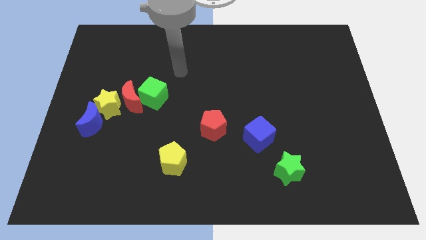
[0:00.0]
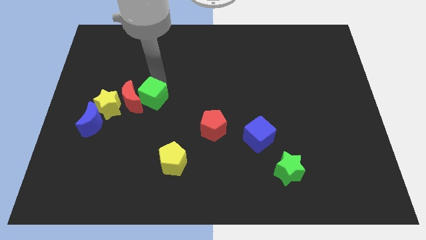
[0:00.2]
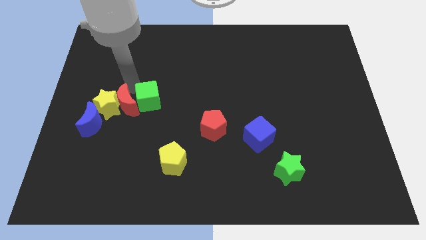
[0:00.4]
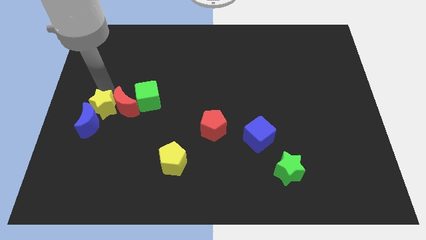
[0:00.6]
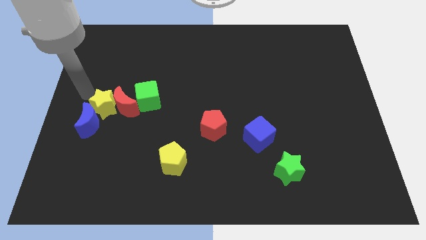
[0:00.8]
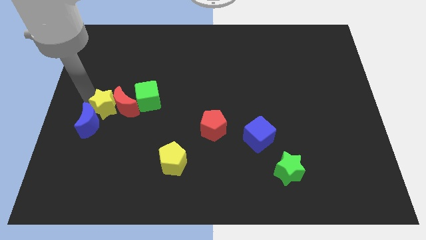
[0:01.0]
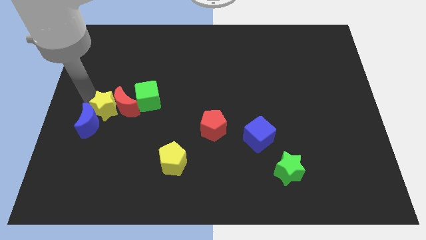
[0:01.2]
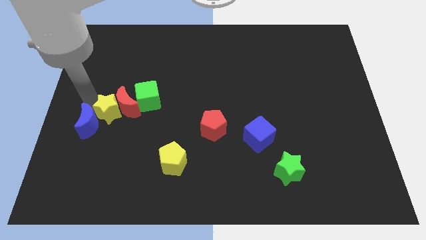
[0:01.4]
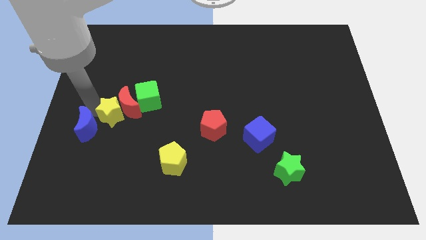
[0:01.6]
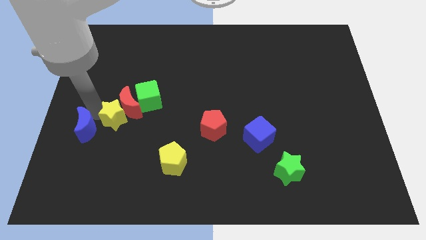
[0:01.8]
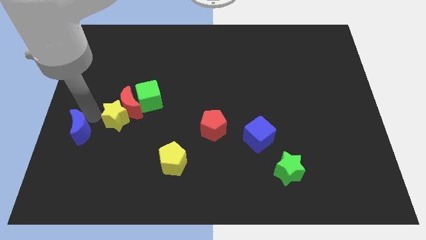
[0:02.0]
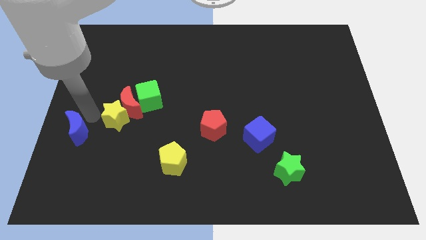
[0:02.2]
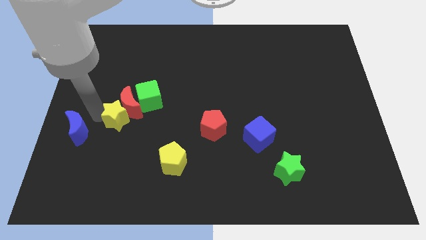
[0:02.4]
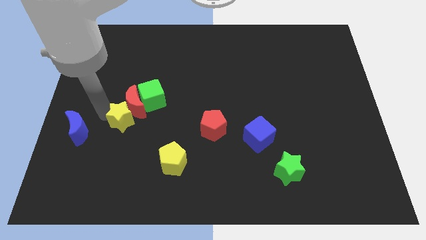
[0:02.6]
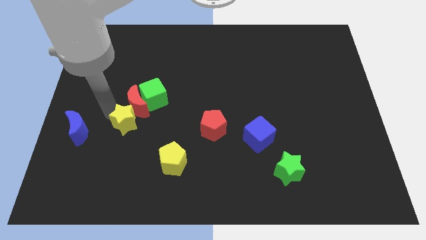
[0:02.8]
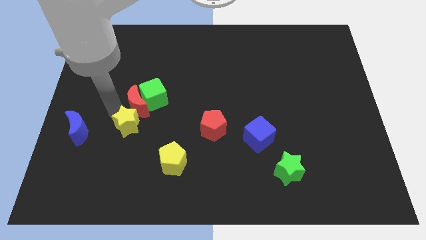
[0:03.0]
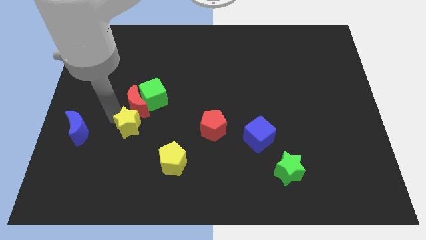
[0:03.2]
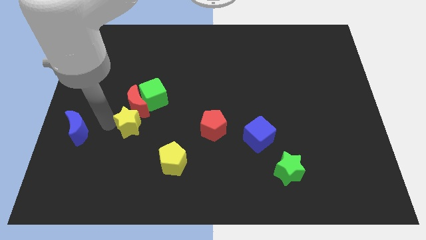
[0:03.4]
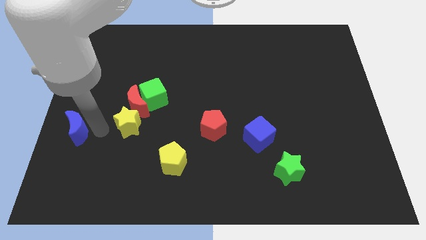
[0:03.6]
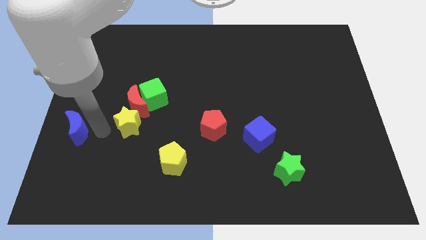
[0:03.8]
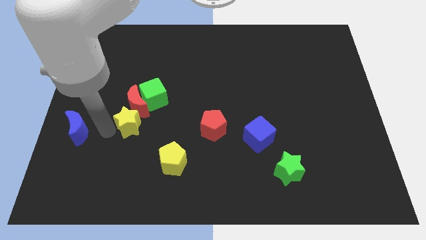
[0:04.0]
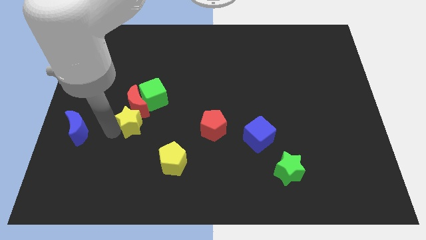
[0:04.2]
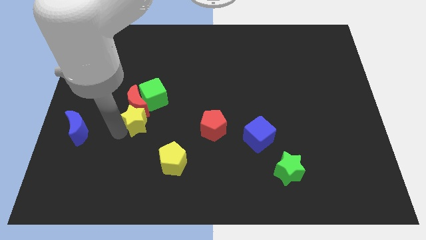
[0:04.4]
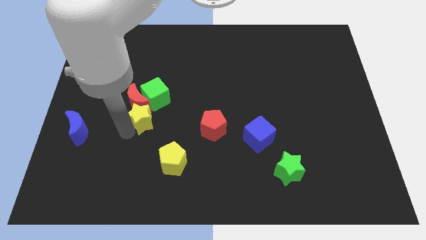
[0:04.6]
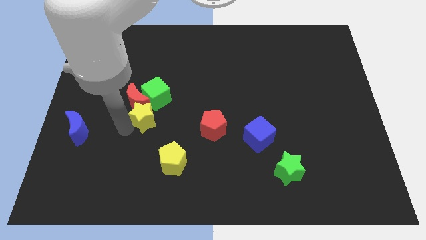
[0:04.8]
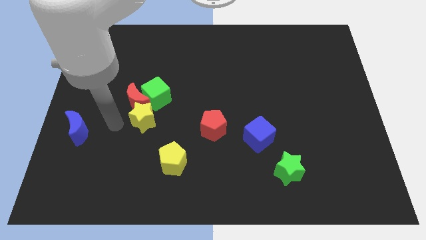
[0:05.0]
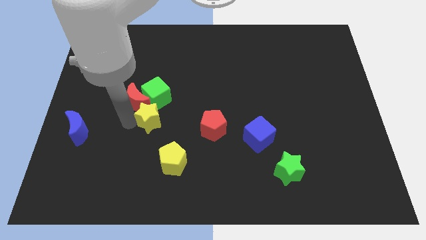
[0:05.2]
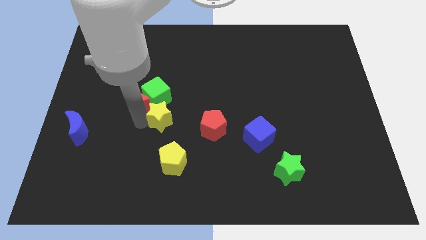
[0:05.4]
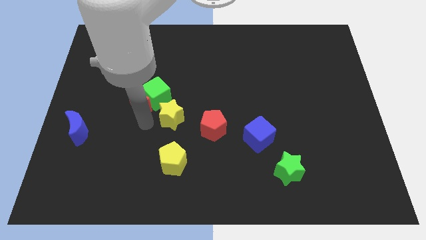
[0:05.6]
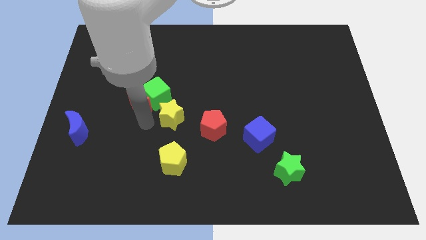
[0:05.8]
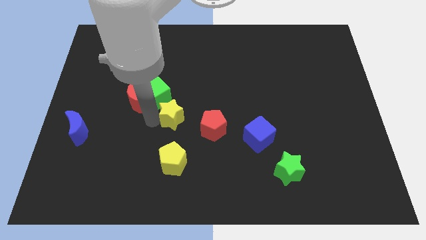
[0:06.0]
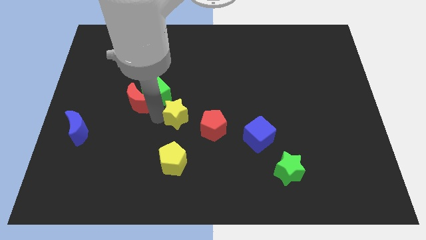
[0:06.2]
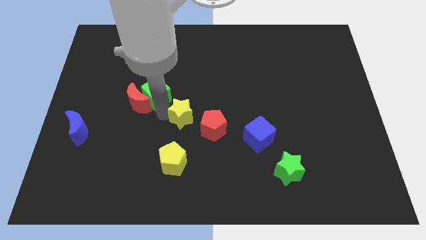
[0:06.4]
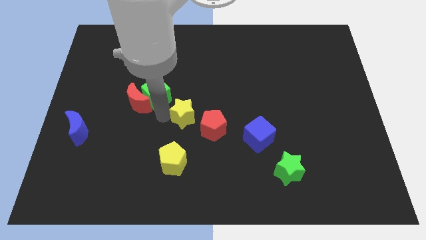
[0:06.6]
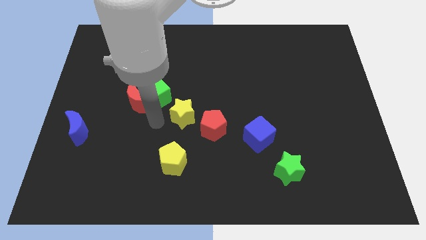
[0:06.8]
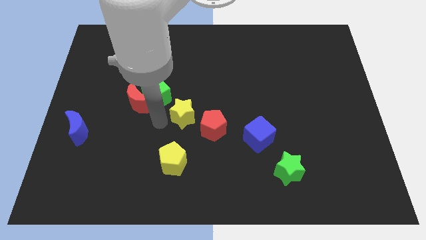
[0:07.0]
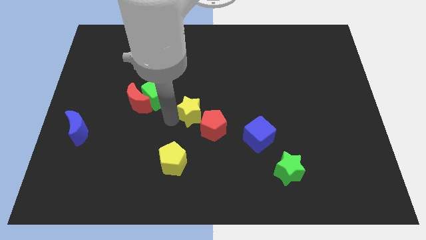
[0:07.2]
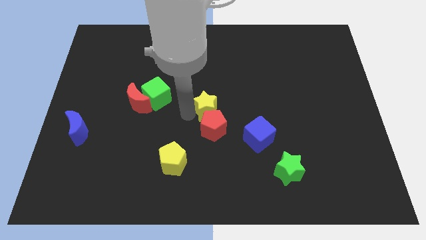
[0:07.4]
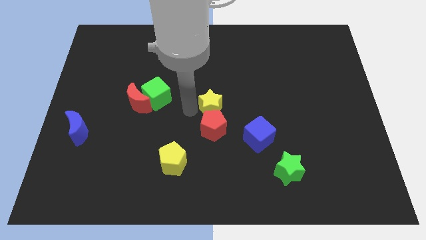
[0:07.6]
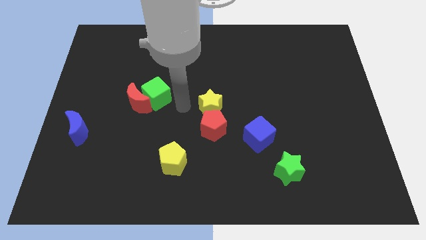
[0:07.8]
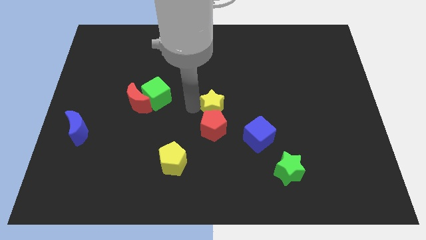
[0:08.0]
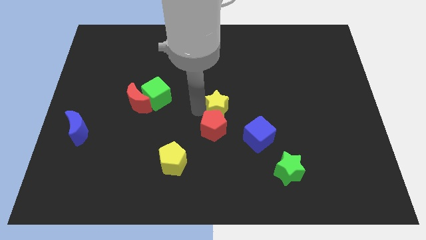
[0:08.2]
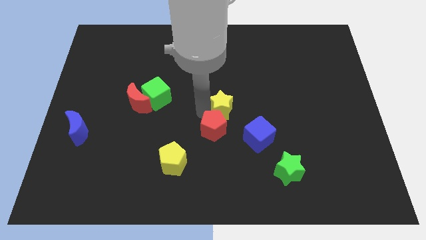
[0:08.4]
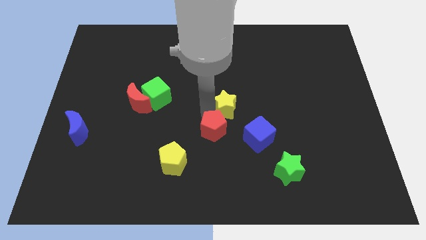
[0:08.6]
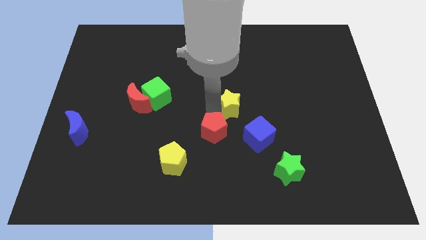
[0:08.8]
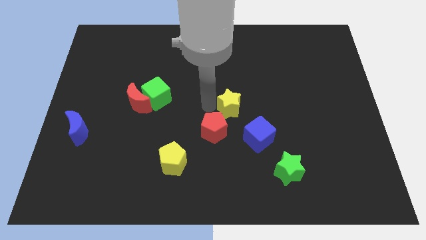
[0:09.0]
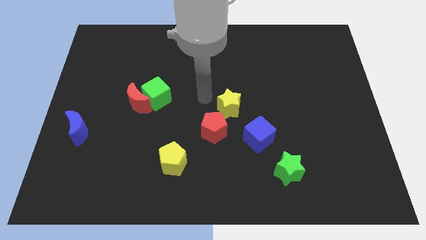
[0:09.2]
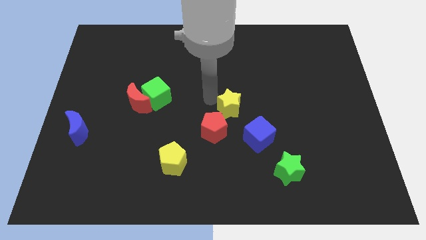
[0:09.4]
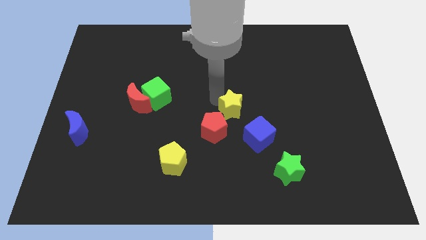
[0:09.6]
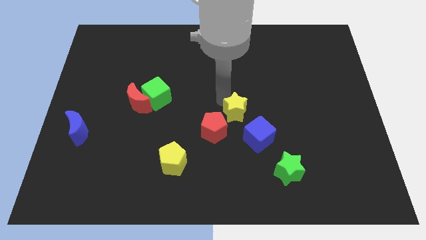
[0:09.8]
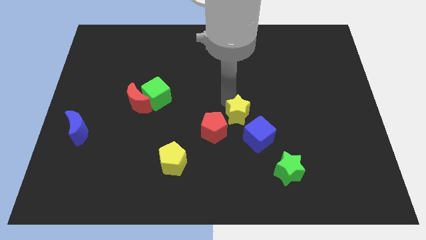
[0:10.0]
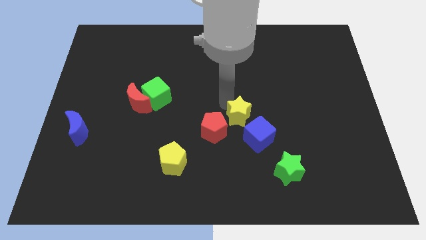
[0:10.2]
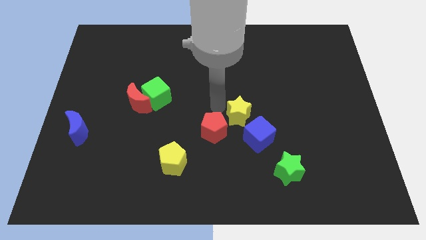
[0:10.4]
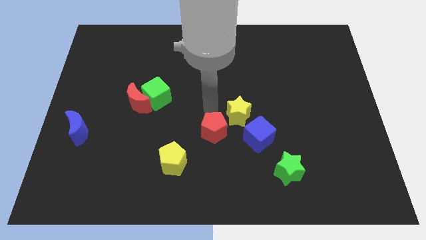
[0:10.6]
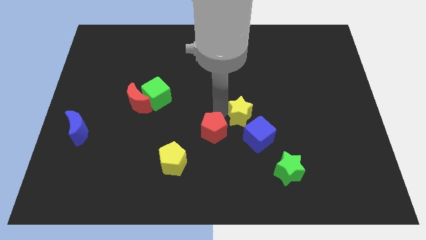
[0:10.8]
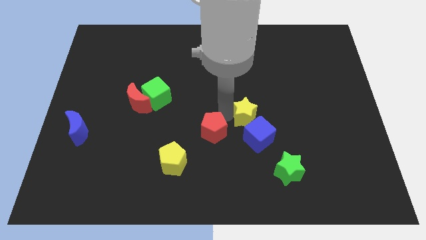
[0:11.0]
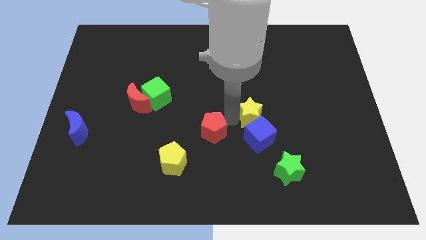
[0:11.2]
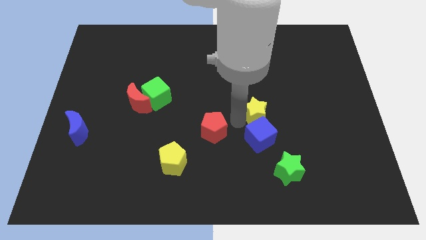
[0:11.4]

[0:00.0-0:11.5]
slide the yellow star to the top right side of the blue cube

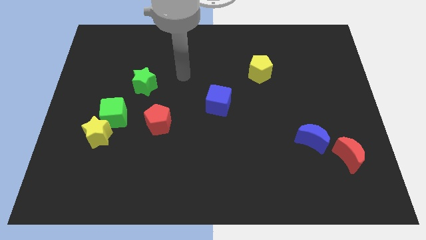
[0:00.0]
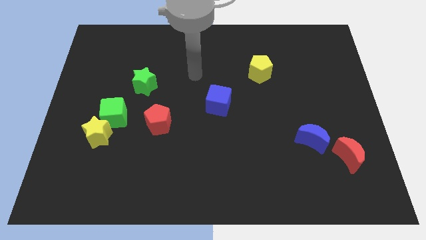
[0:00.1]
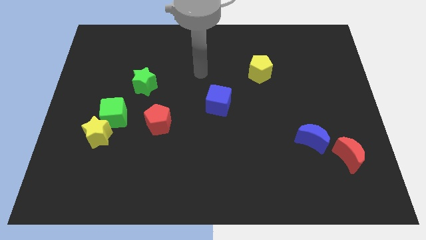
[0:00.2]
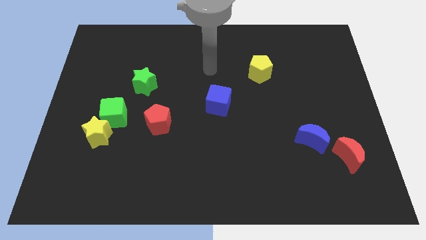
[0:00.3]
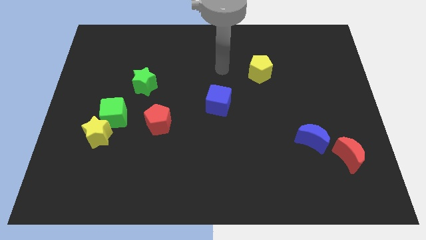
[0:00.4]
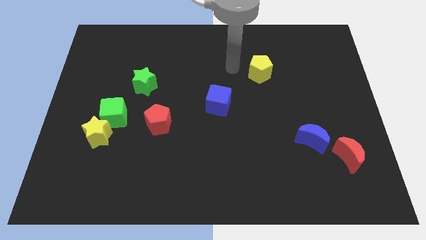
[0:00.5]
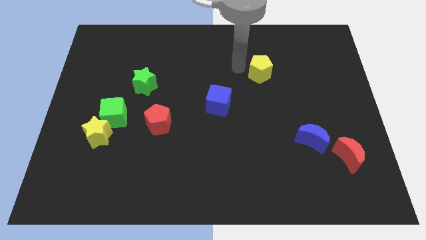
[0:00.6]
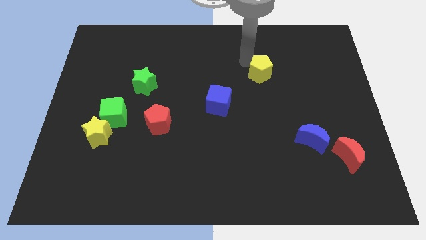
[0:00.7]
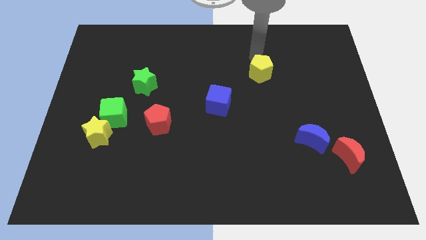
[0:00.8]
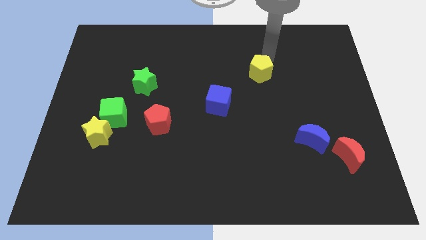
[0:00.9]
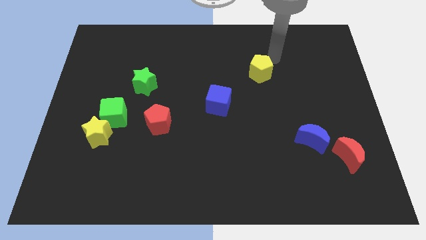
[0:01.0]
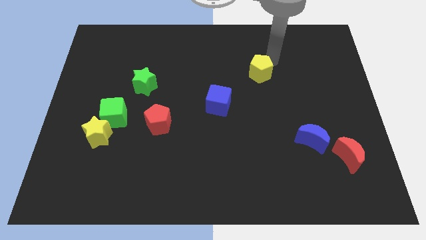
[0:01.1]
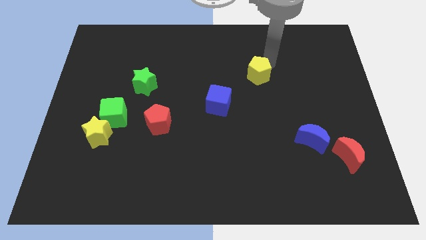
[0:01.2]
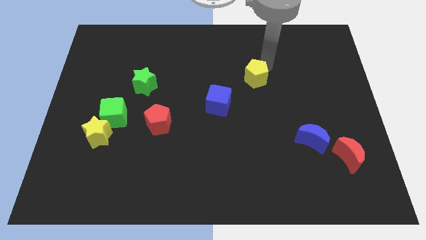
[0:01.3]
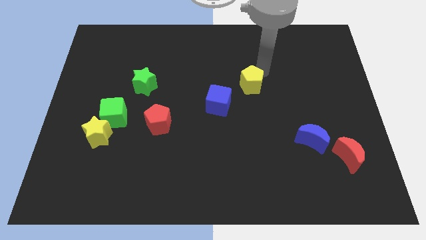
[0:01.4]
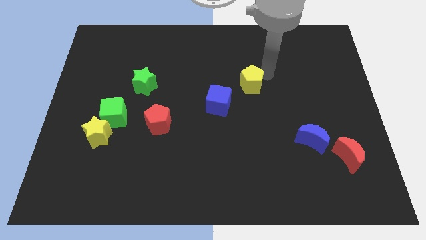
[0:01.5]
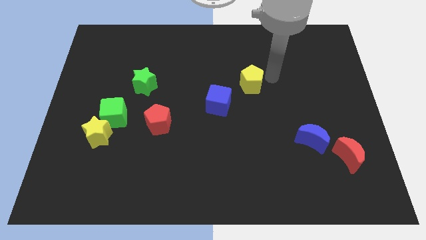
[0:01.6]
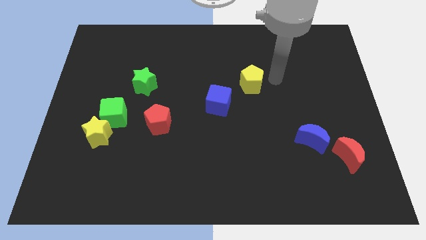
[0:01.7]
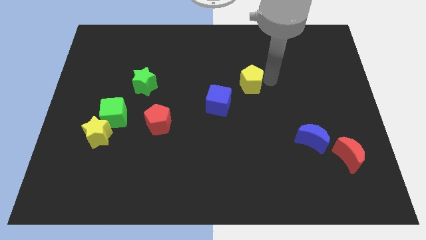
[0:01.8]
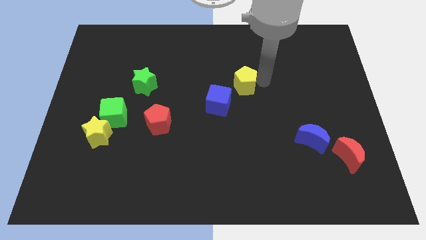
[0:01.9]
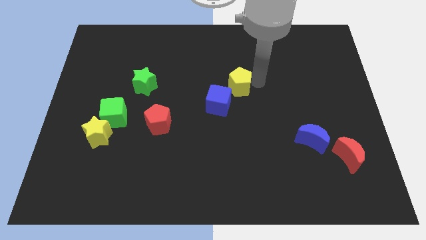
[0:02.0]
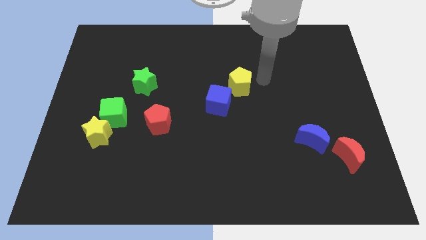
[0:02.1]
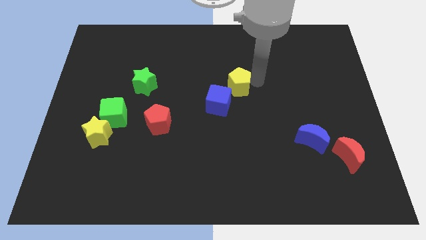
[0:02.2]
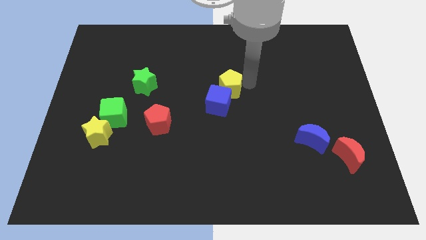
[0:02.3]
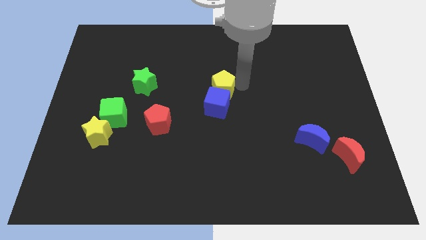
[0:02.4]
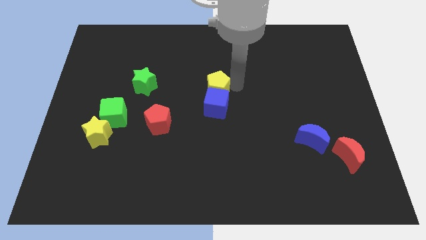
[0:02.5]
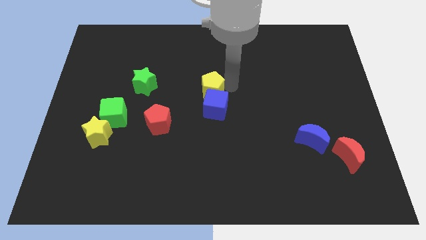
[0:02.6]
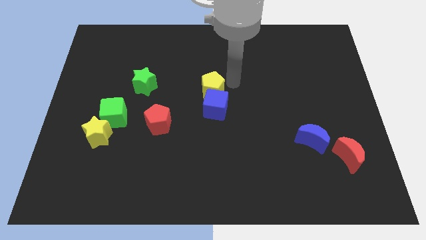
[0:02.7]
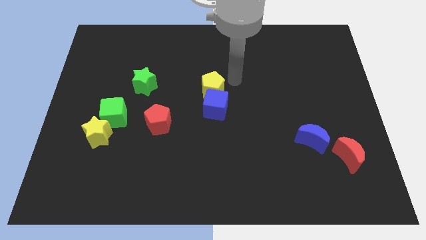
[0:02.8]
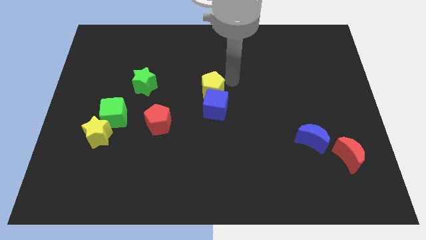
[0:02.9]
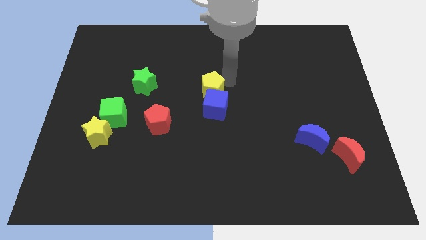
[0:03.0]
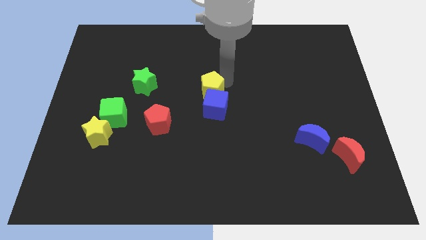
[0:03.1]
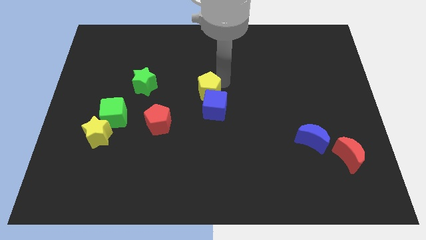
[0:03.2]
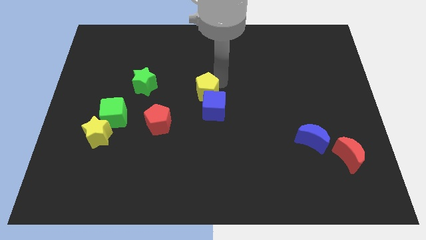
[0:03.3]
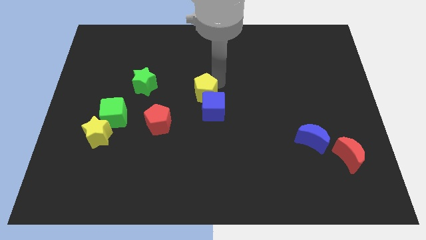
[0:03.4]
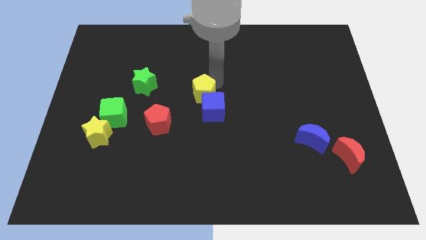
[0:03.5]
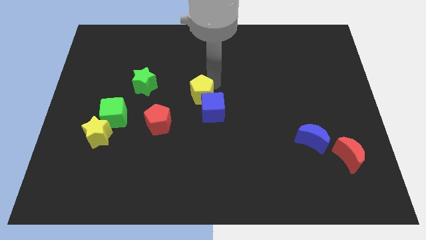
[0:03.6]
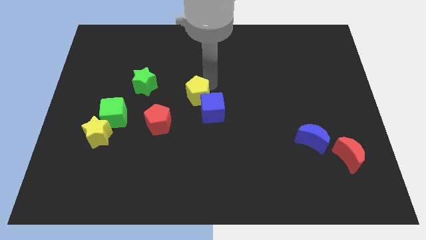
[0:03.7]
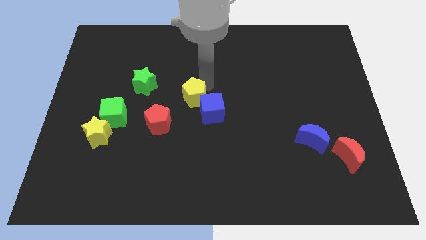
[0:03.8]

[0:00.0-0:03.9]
put the yellow pentagon just left of the blue cube
